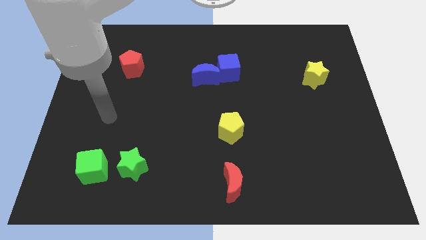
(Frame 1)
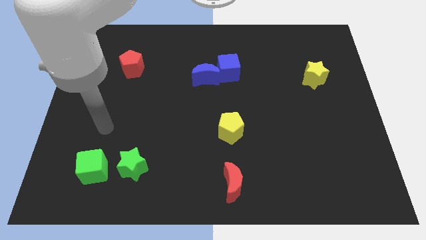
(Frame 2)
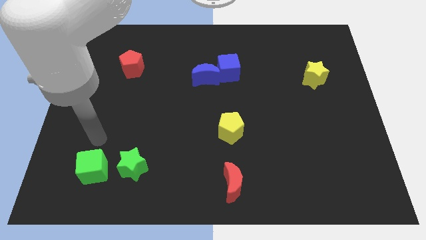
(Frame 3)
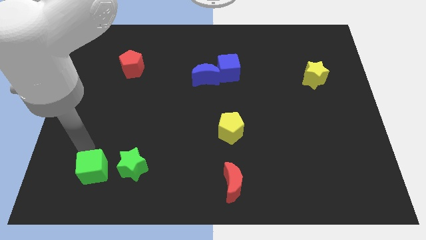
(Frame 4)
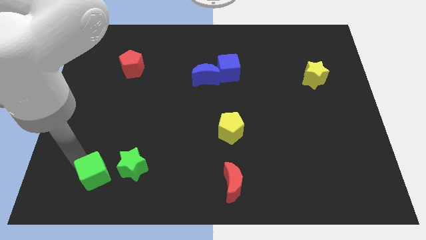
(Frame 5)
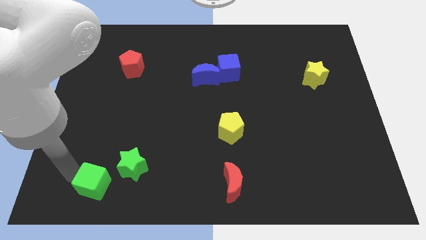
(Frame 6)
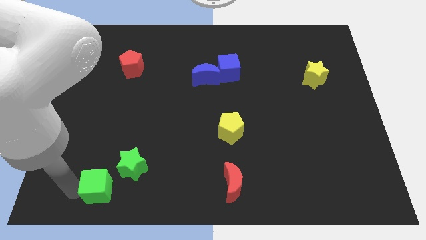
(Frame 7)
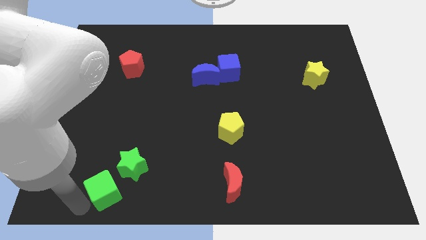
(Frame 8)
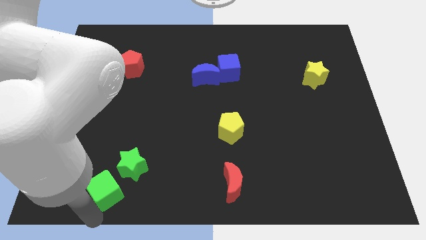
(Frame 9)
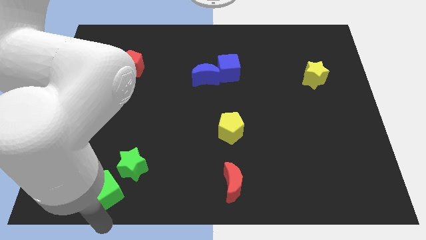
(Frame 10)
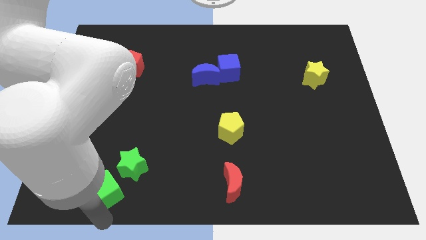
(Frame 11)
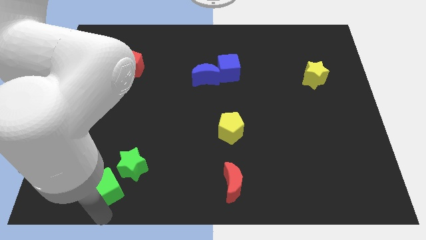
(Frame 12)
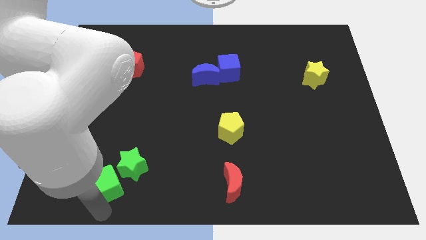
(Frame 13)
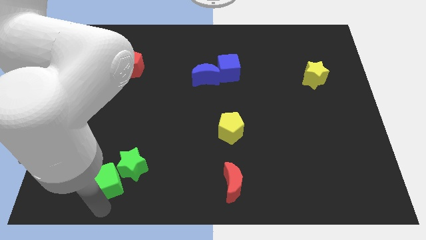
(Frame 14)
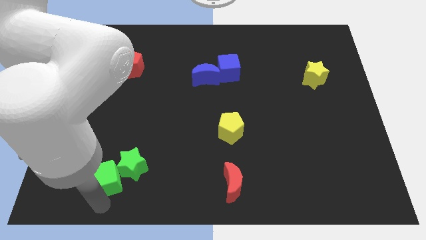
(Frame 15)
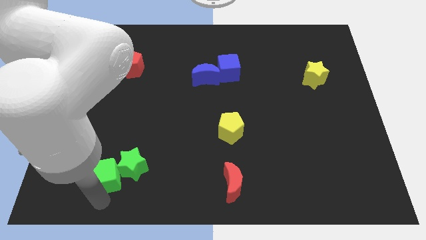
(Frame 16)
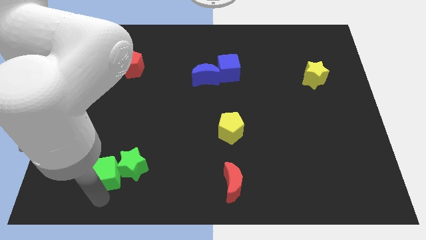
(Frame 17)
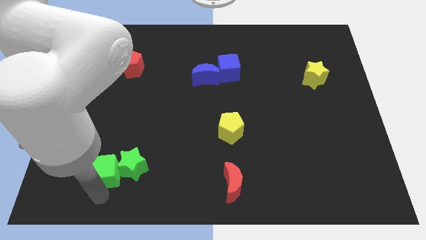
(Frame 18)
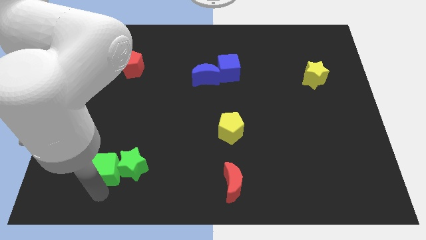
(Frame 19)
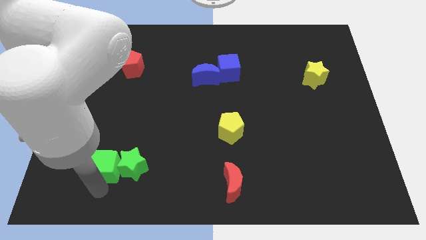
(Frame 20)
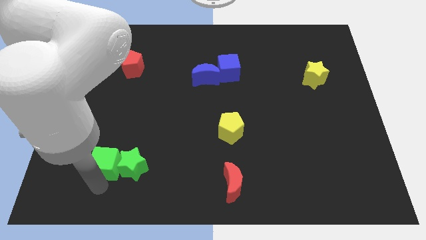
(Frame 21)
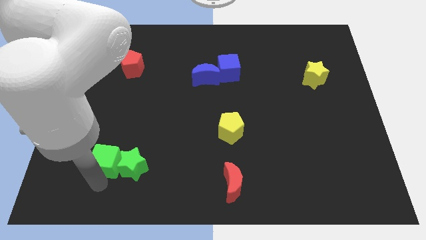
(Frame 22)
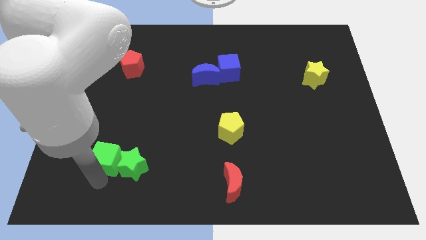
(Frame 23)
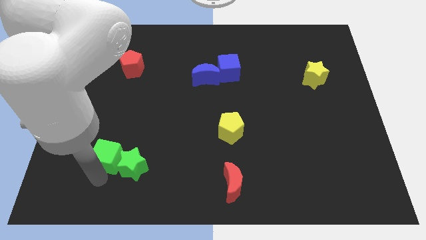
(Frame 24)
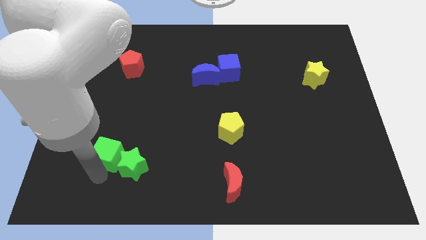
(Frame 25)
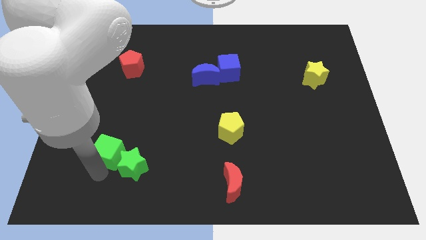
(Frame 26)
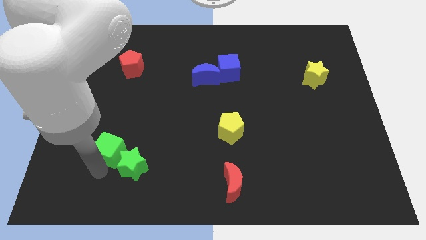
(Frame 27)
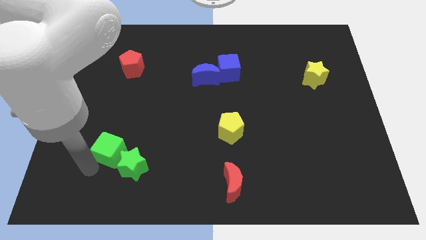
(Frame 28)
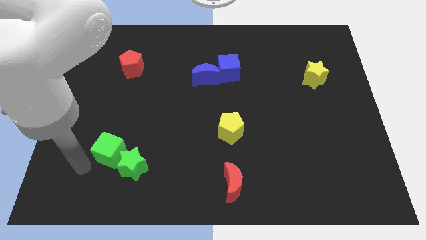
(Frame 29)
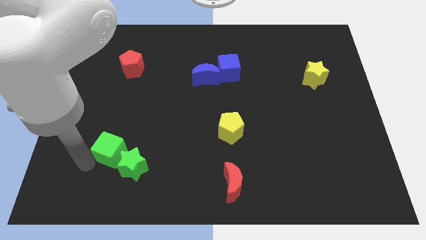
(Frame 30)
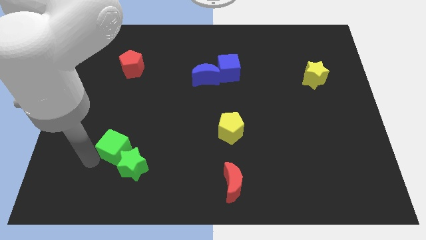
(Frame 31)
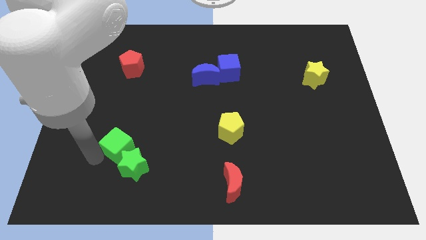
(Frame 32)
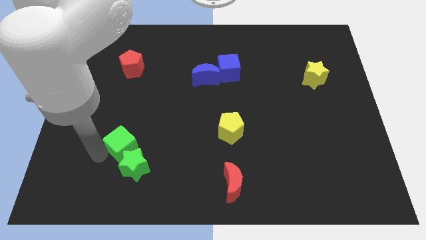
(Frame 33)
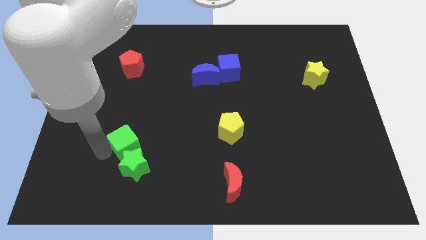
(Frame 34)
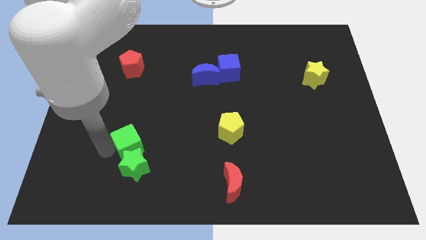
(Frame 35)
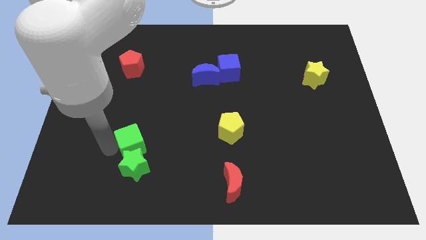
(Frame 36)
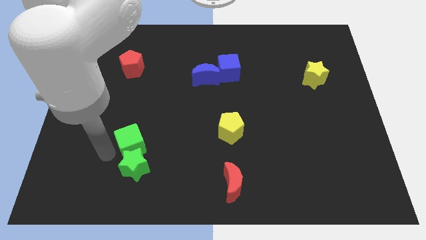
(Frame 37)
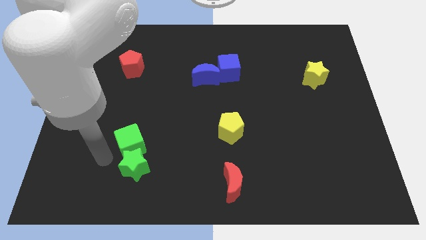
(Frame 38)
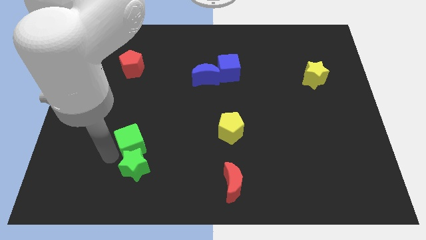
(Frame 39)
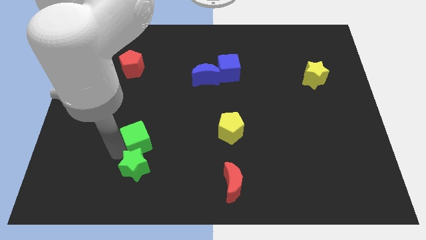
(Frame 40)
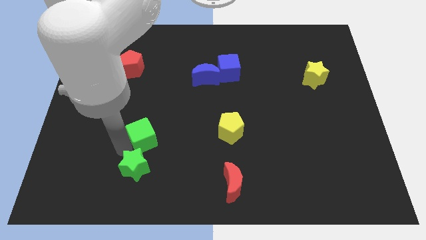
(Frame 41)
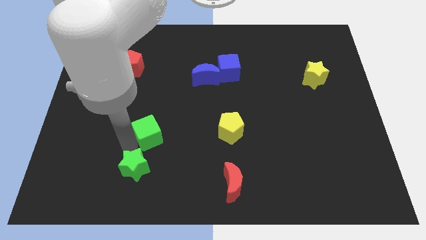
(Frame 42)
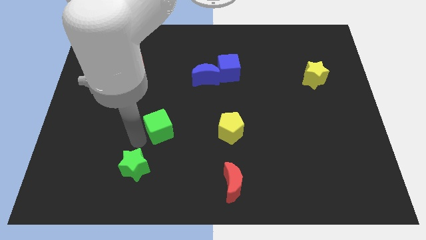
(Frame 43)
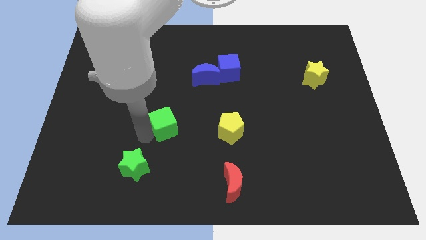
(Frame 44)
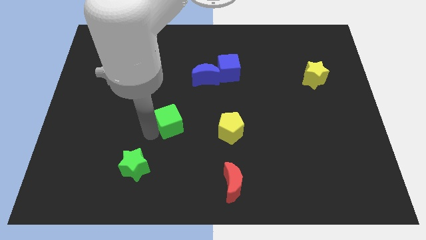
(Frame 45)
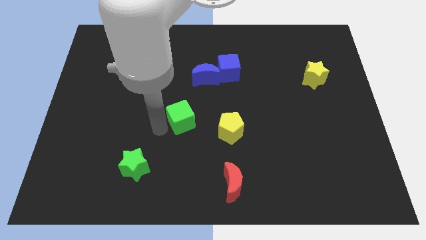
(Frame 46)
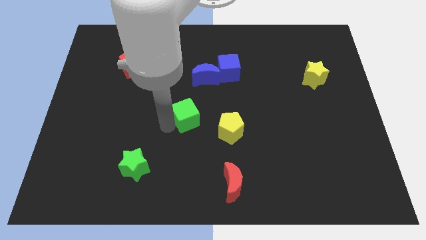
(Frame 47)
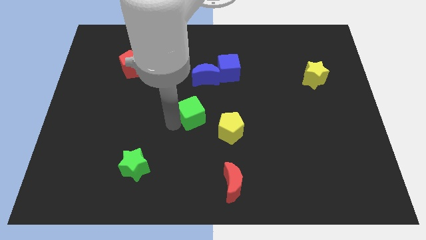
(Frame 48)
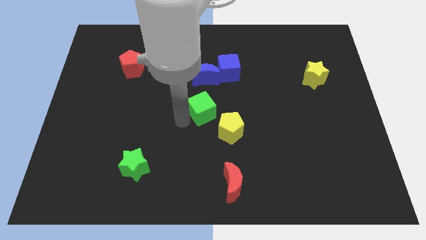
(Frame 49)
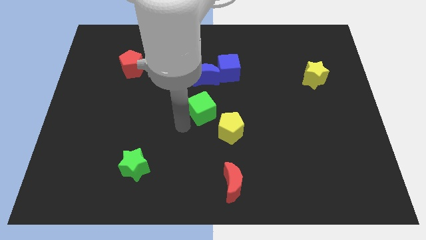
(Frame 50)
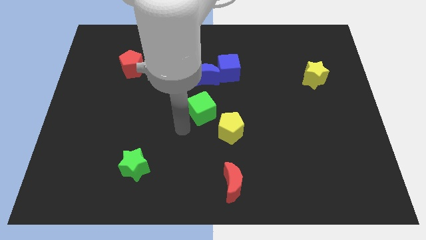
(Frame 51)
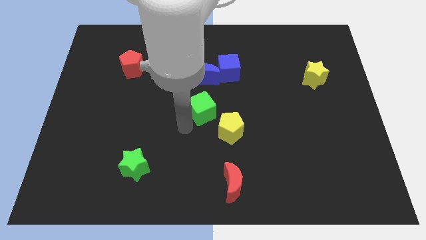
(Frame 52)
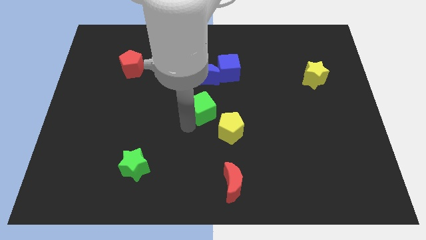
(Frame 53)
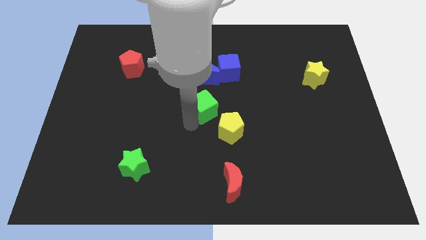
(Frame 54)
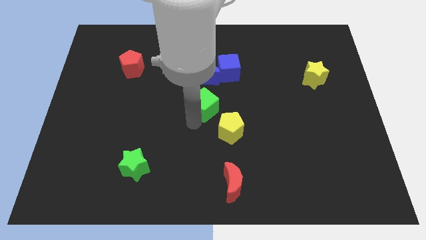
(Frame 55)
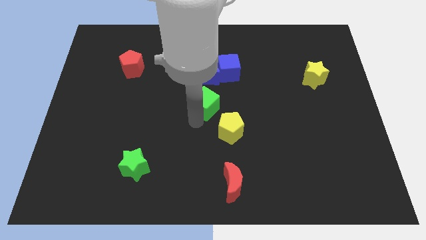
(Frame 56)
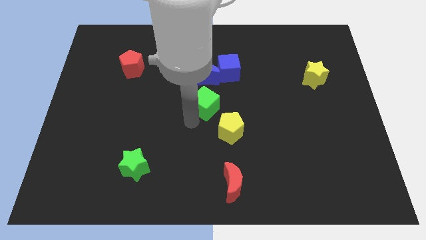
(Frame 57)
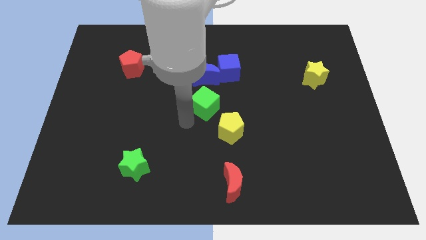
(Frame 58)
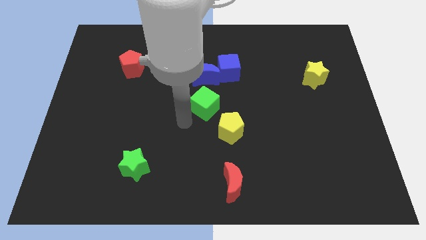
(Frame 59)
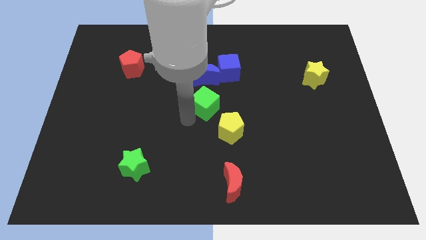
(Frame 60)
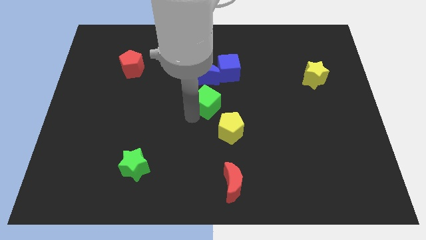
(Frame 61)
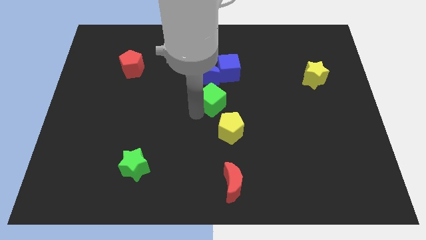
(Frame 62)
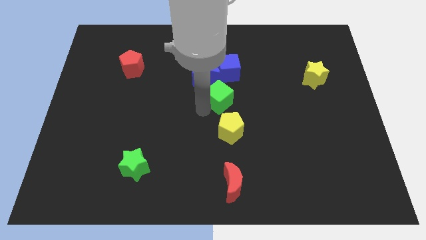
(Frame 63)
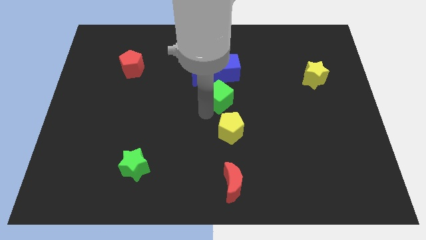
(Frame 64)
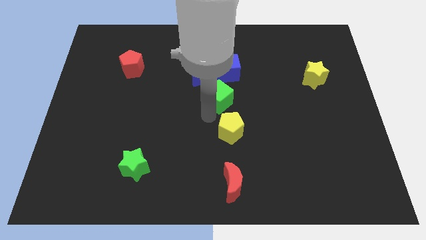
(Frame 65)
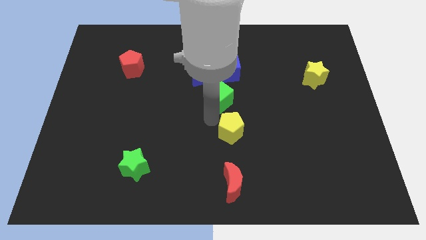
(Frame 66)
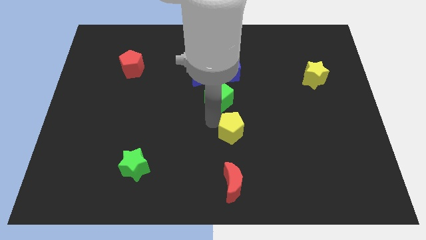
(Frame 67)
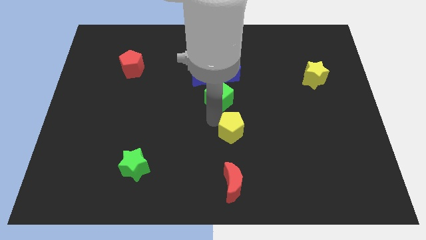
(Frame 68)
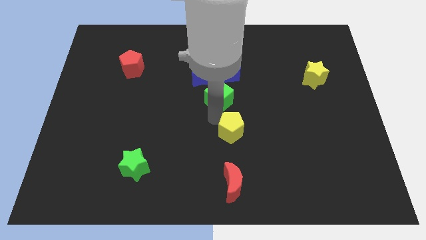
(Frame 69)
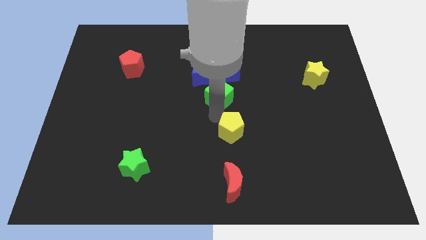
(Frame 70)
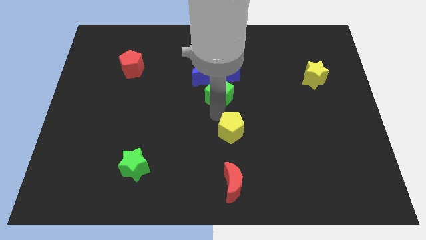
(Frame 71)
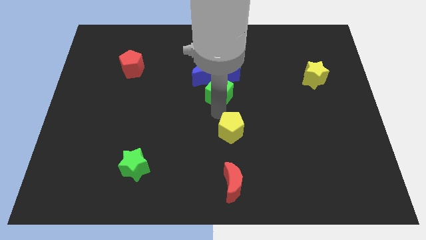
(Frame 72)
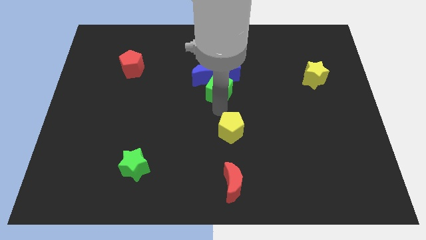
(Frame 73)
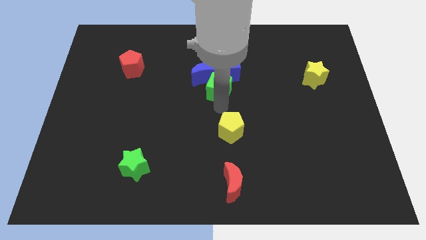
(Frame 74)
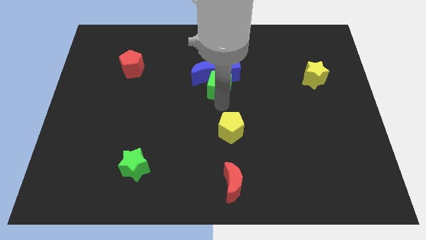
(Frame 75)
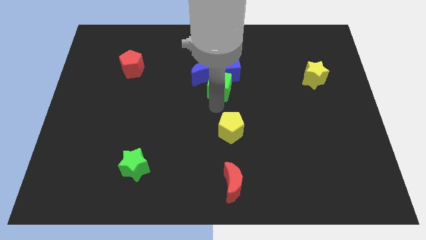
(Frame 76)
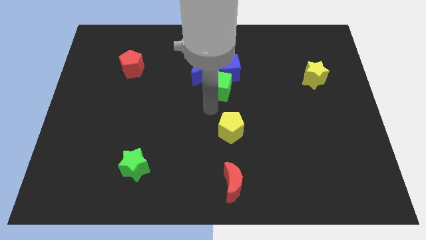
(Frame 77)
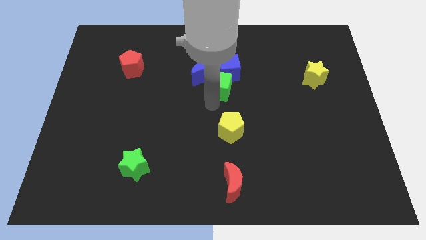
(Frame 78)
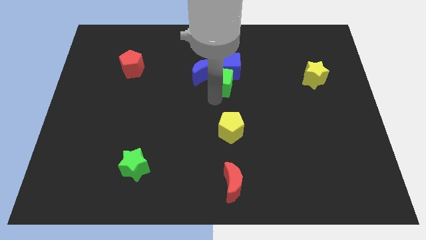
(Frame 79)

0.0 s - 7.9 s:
push the green cube next to the blue cube
